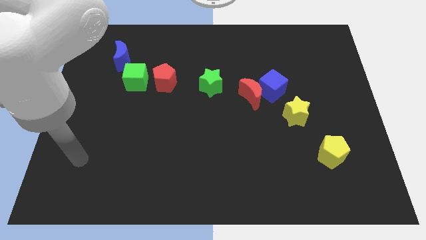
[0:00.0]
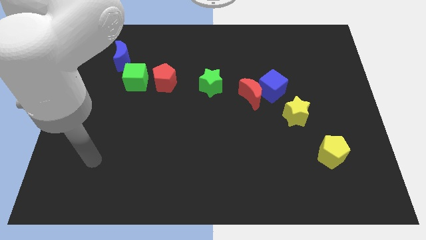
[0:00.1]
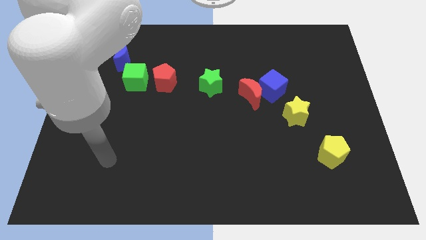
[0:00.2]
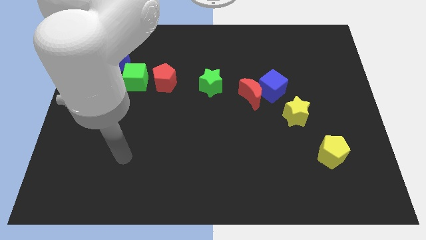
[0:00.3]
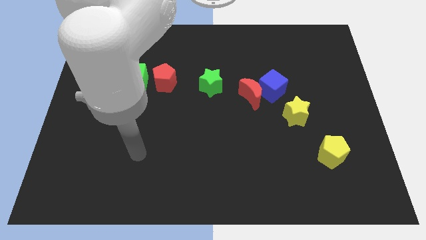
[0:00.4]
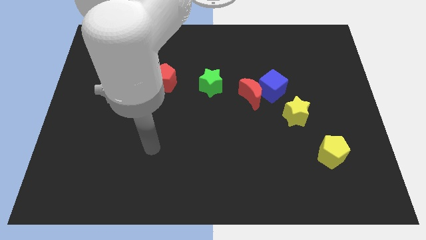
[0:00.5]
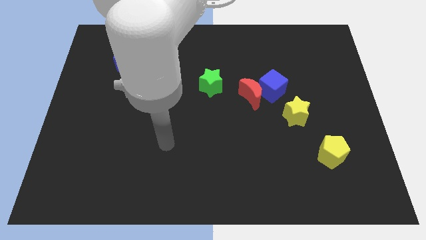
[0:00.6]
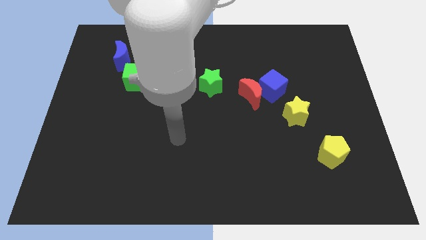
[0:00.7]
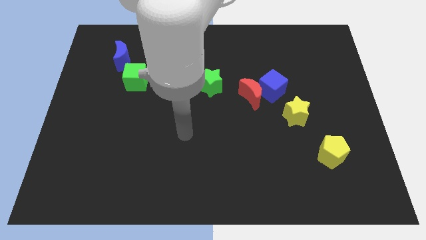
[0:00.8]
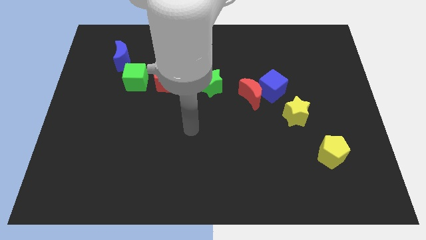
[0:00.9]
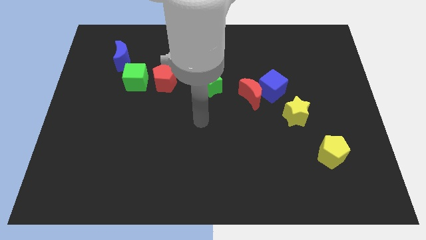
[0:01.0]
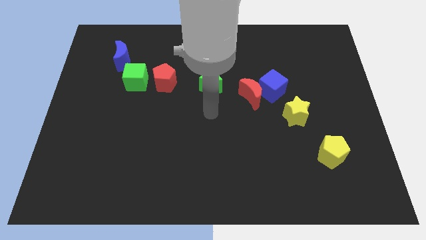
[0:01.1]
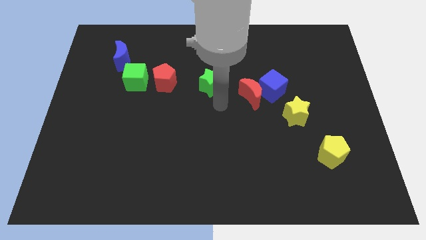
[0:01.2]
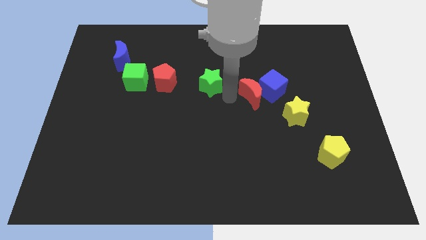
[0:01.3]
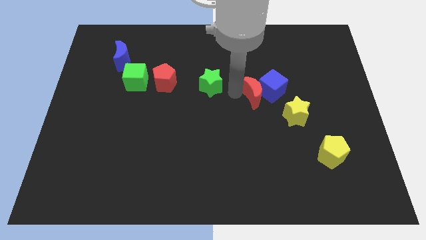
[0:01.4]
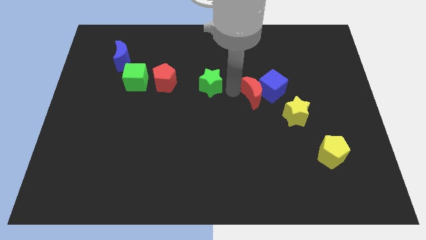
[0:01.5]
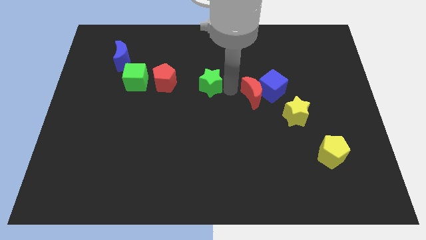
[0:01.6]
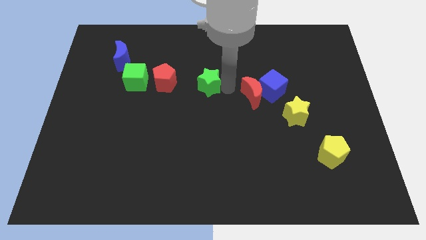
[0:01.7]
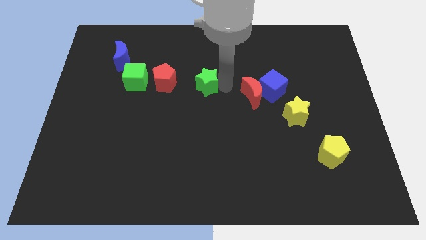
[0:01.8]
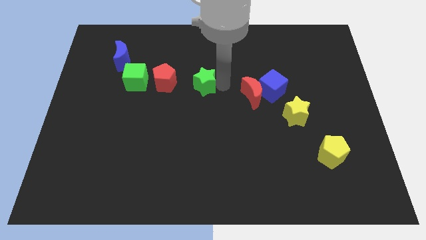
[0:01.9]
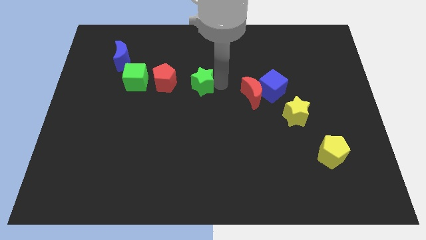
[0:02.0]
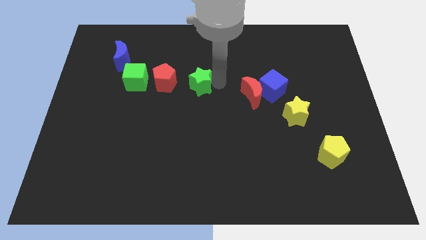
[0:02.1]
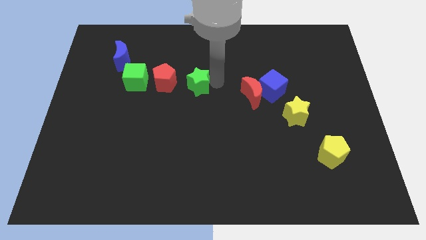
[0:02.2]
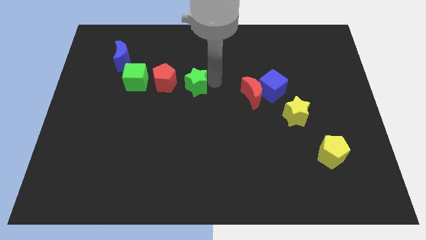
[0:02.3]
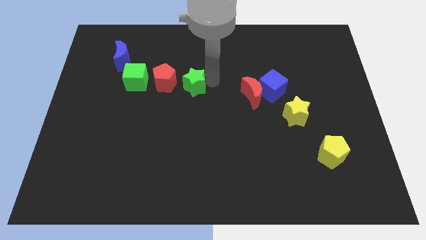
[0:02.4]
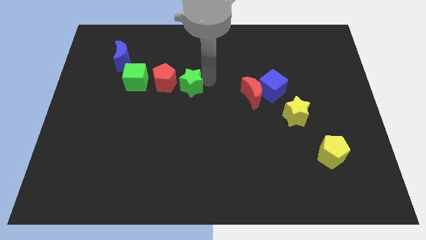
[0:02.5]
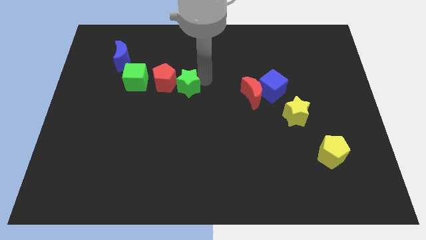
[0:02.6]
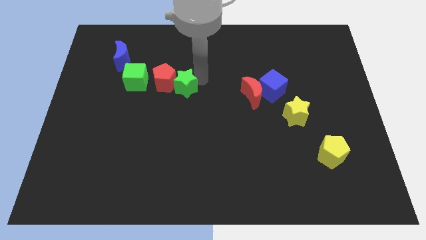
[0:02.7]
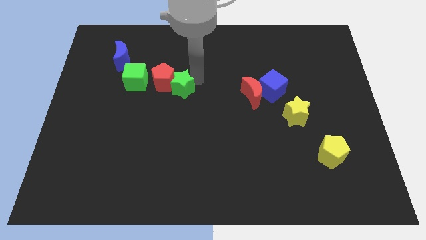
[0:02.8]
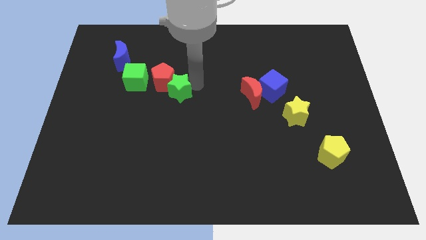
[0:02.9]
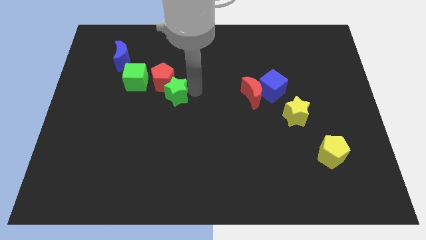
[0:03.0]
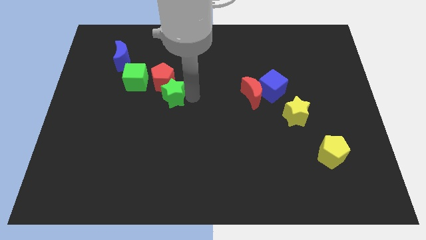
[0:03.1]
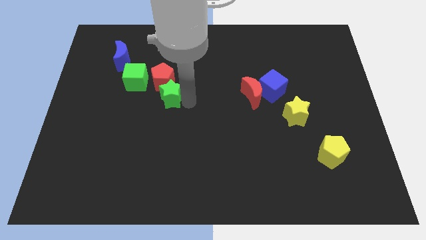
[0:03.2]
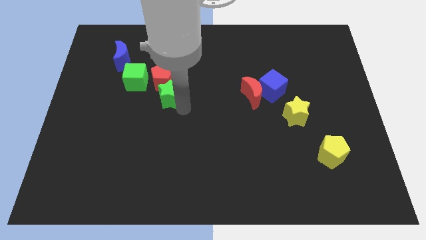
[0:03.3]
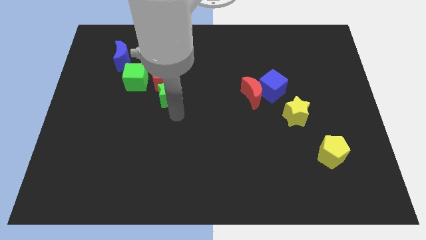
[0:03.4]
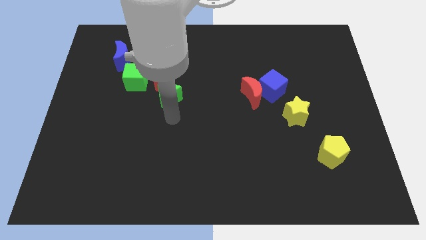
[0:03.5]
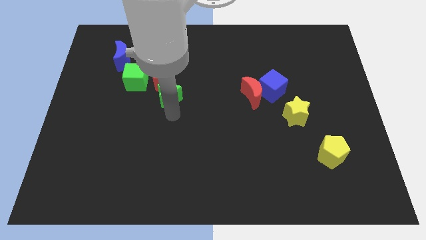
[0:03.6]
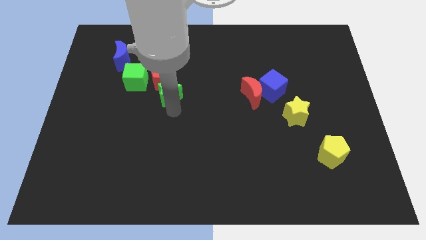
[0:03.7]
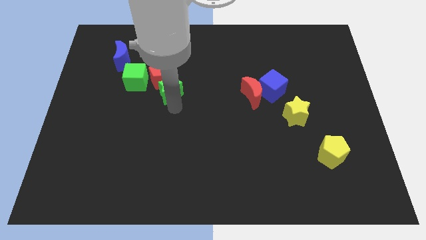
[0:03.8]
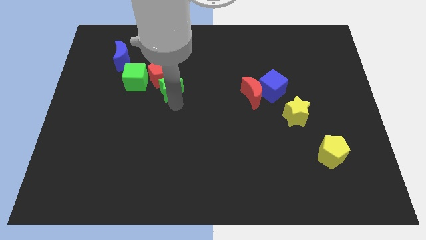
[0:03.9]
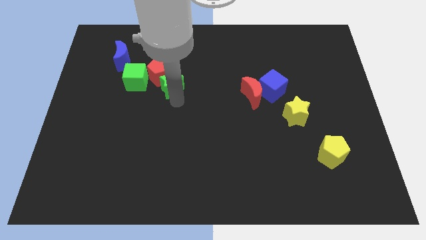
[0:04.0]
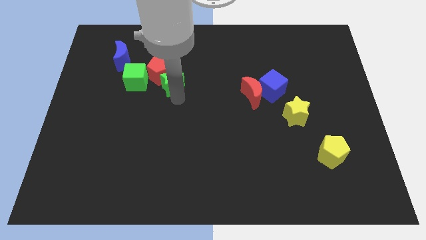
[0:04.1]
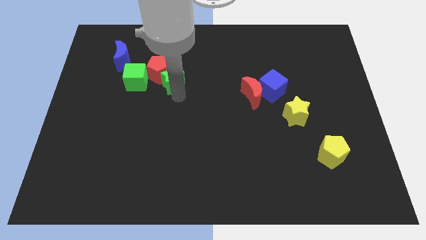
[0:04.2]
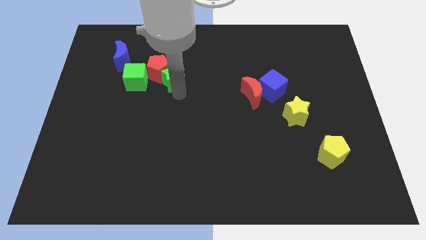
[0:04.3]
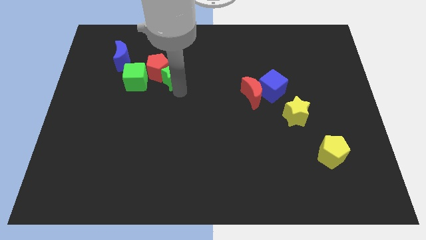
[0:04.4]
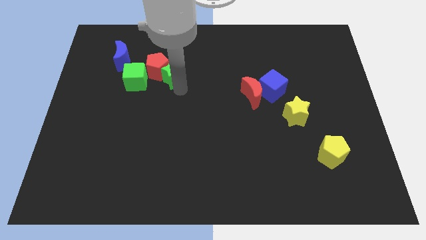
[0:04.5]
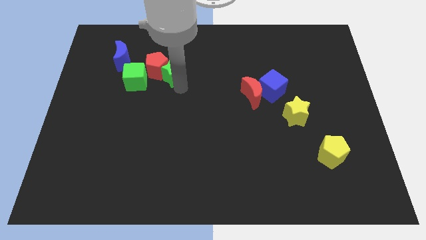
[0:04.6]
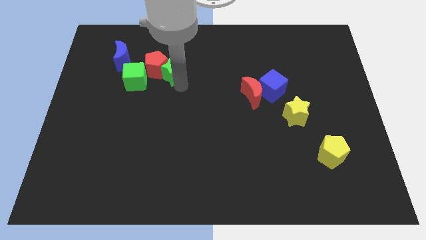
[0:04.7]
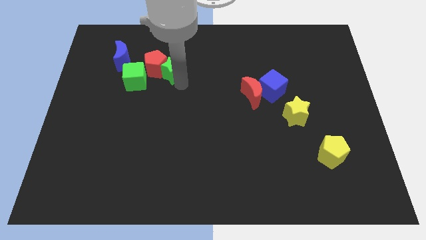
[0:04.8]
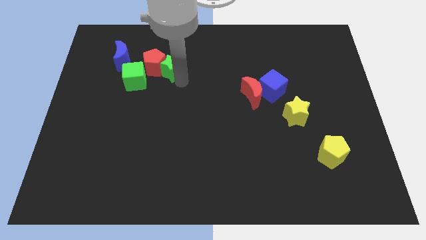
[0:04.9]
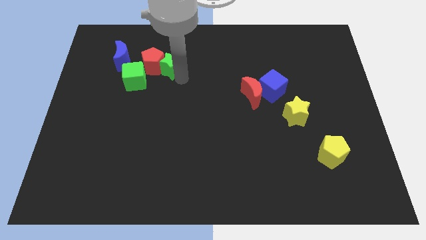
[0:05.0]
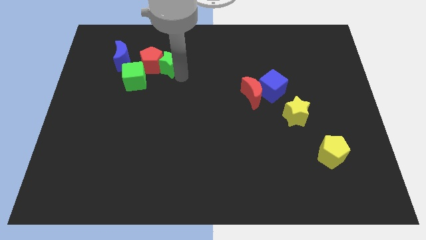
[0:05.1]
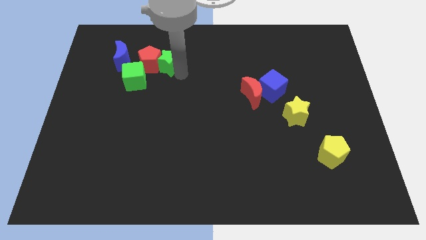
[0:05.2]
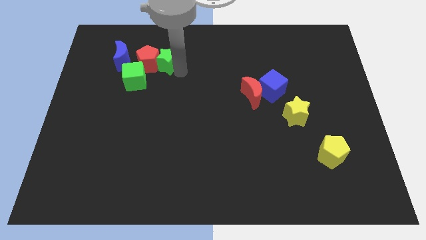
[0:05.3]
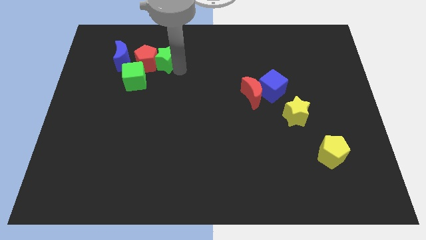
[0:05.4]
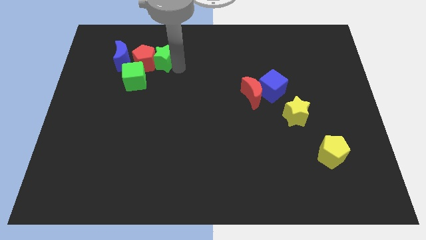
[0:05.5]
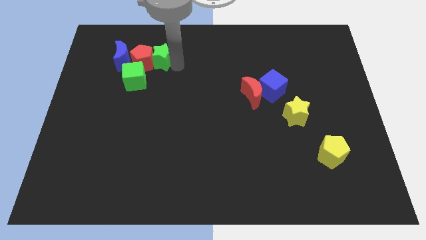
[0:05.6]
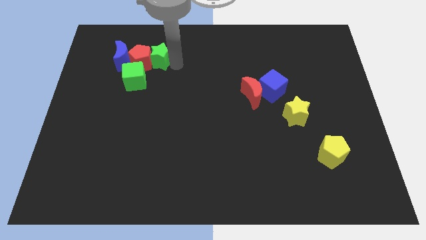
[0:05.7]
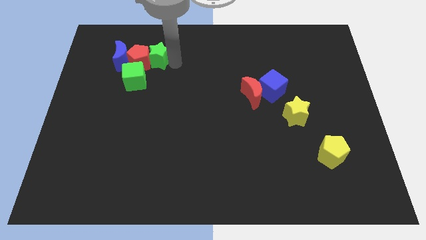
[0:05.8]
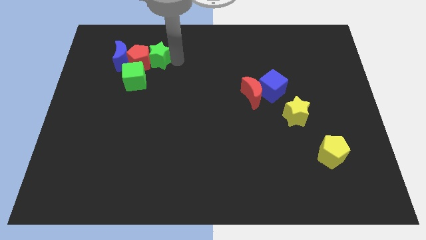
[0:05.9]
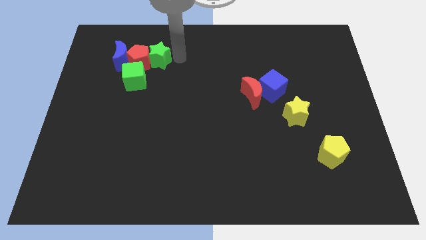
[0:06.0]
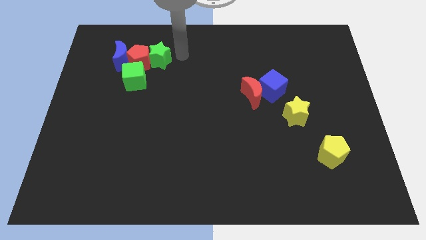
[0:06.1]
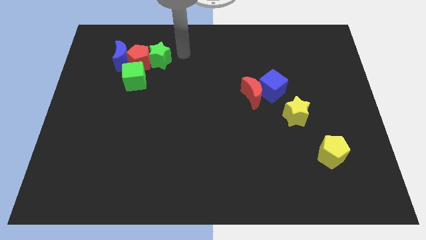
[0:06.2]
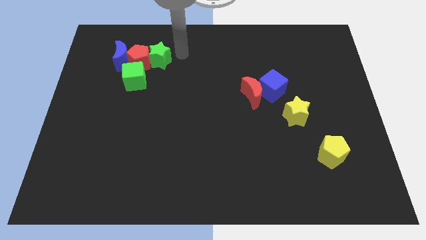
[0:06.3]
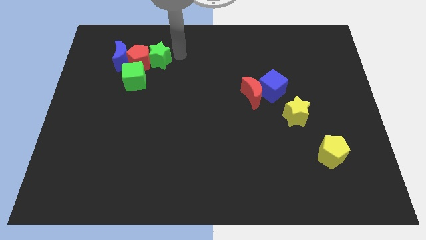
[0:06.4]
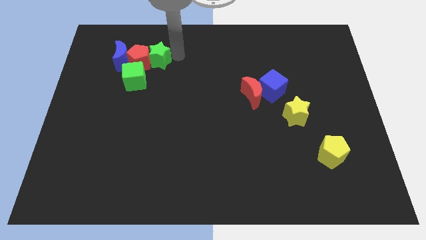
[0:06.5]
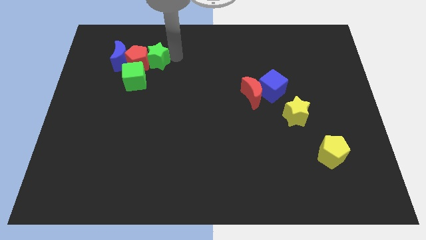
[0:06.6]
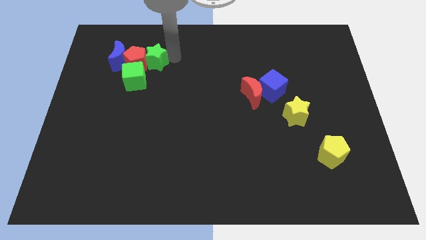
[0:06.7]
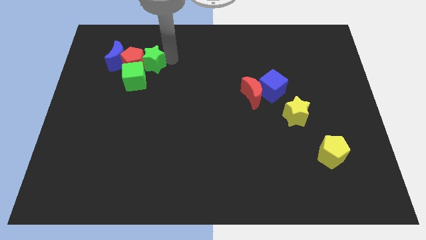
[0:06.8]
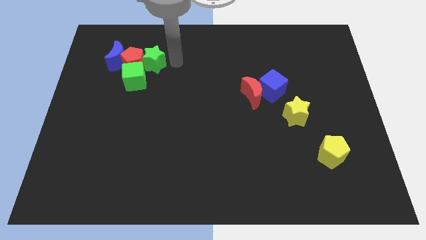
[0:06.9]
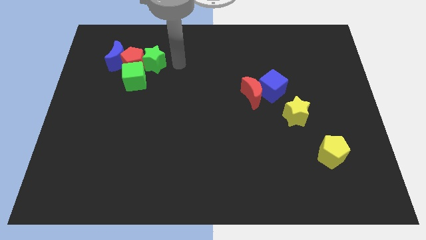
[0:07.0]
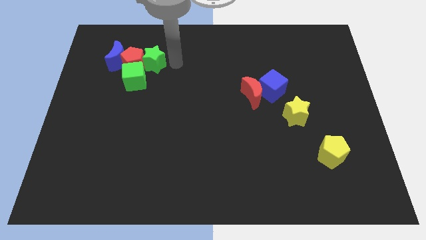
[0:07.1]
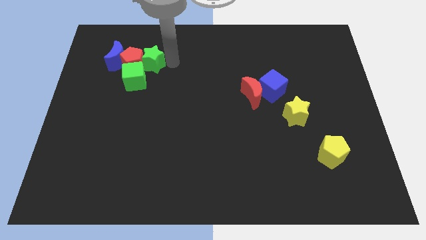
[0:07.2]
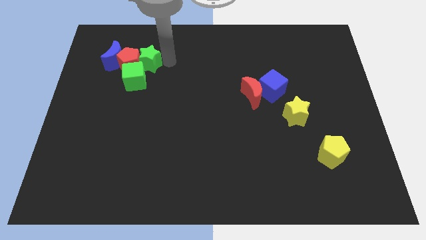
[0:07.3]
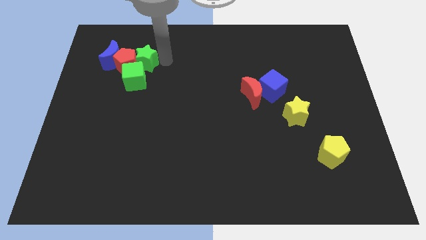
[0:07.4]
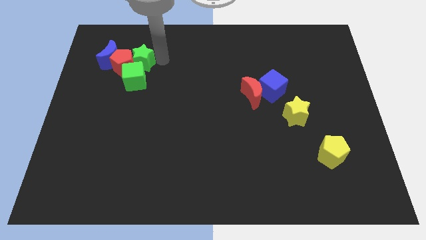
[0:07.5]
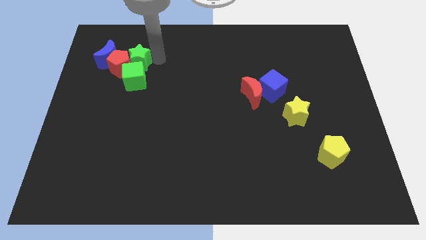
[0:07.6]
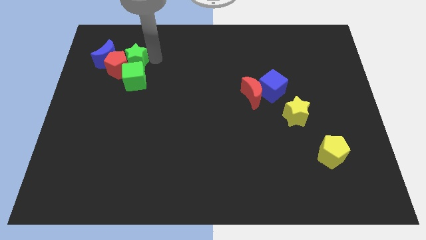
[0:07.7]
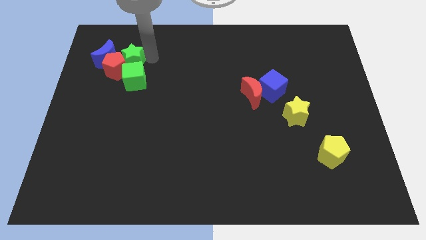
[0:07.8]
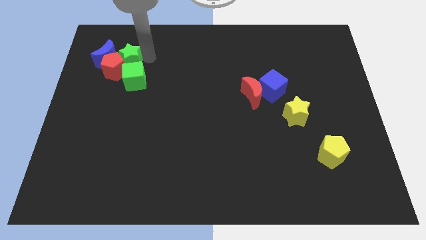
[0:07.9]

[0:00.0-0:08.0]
slide the green star close to the blue moon

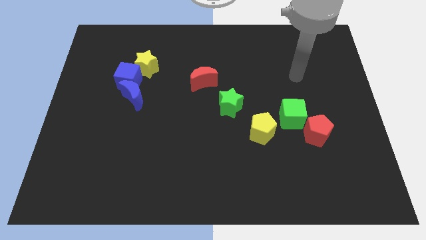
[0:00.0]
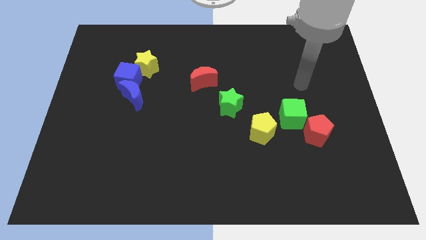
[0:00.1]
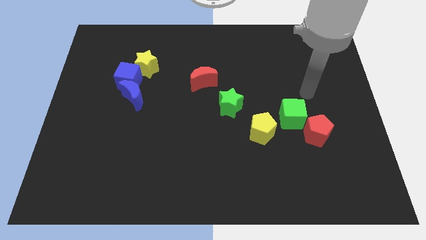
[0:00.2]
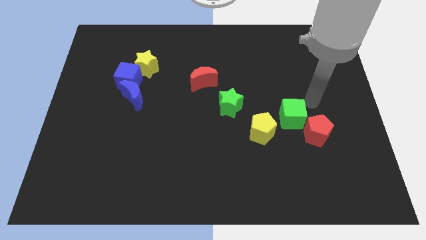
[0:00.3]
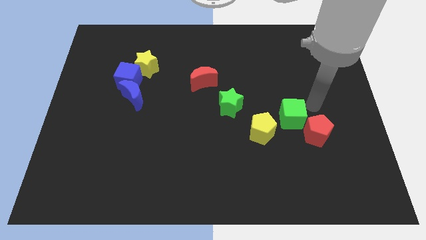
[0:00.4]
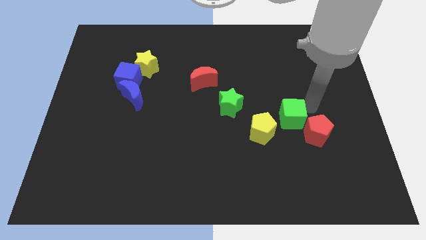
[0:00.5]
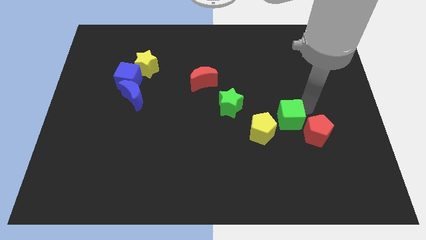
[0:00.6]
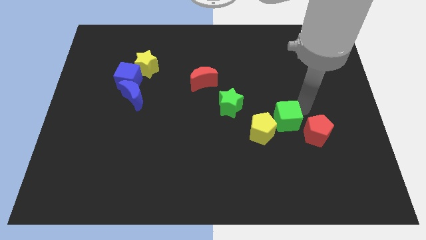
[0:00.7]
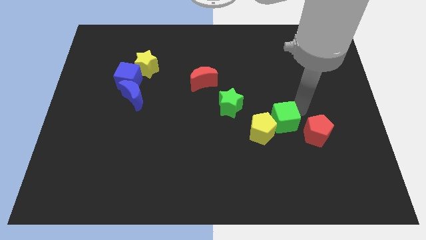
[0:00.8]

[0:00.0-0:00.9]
put the green cube next to the yellow pentagon
